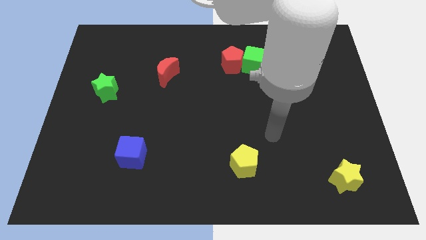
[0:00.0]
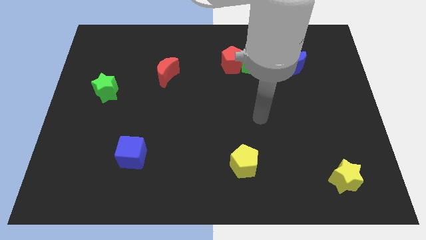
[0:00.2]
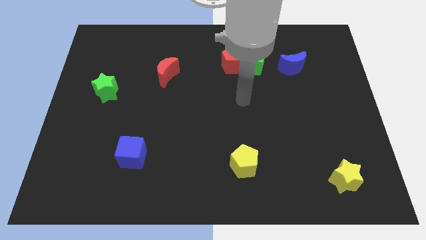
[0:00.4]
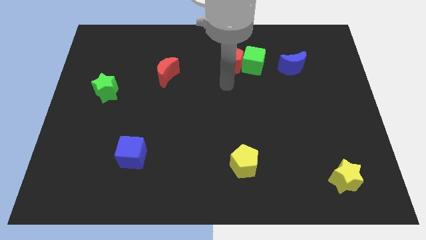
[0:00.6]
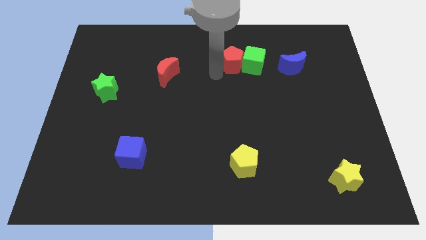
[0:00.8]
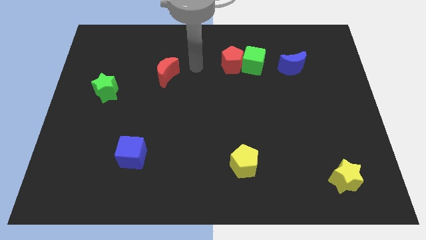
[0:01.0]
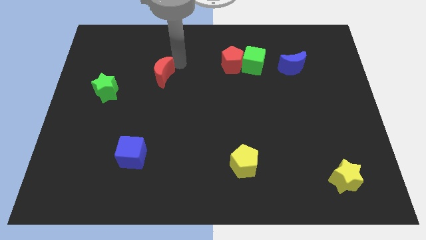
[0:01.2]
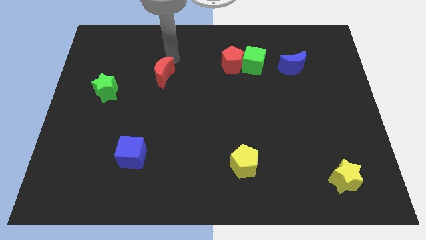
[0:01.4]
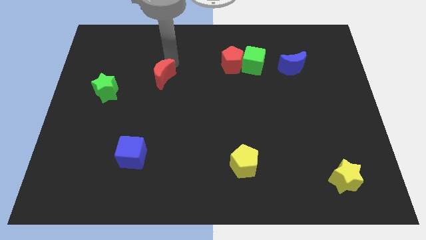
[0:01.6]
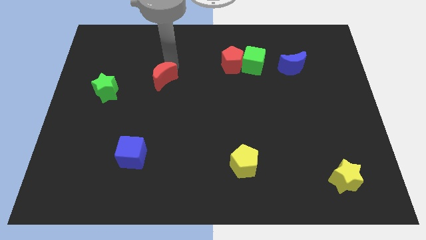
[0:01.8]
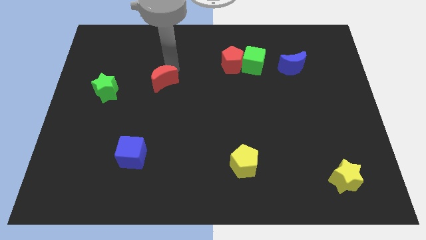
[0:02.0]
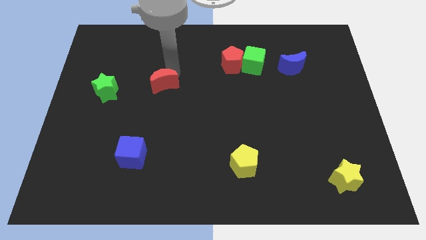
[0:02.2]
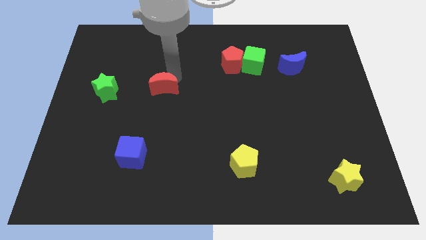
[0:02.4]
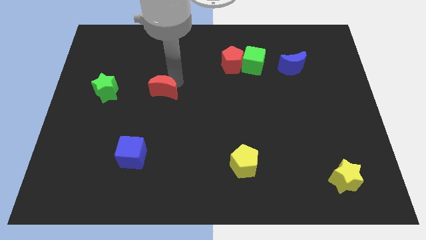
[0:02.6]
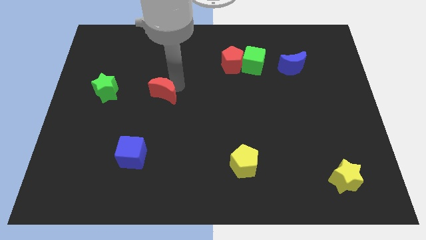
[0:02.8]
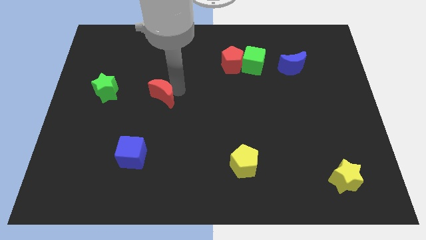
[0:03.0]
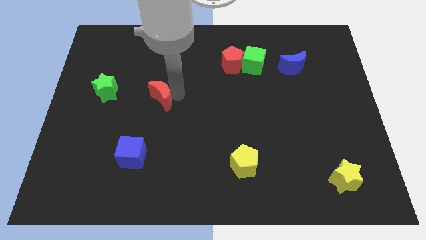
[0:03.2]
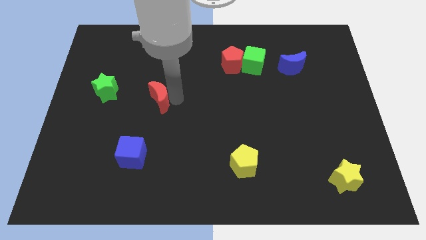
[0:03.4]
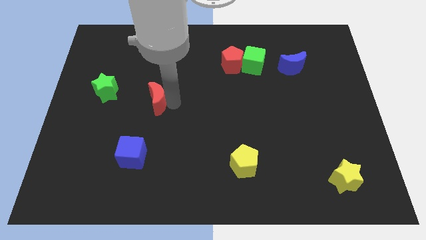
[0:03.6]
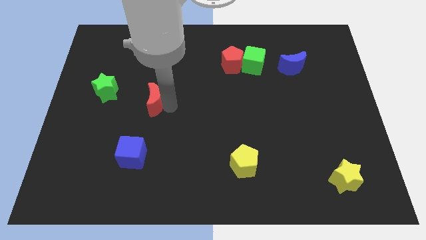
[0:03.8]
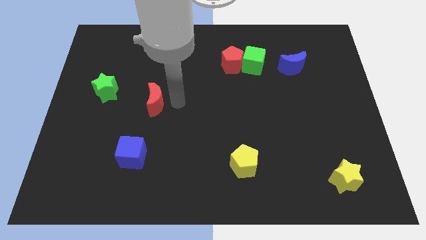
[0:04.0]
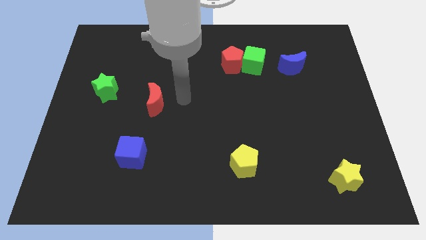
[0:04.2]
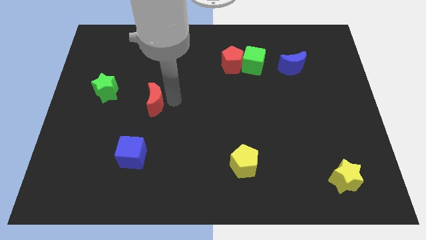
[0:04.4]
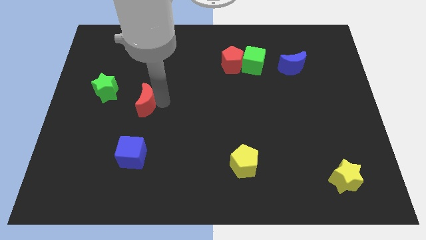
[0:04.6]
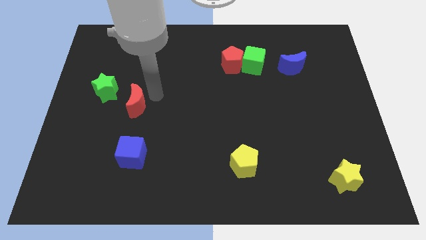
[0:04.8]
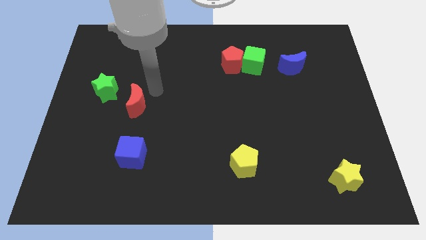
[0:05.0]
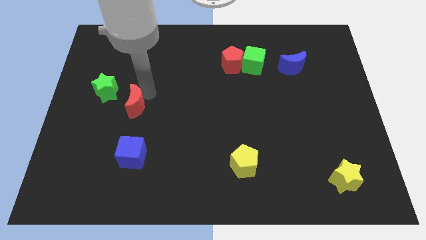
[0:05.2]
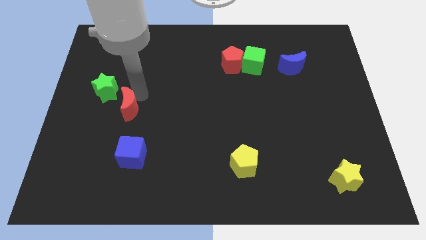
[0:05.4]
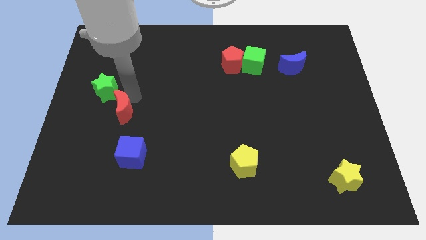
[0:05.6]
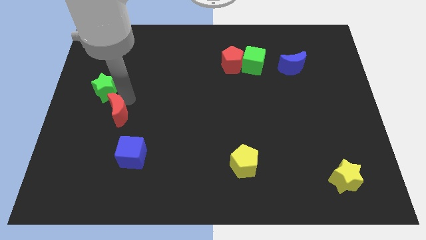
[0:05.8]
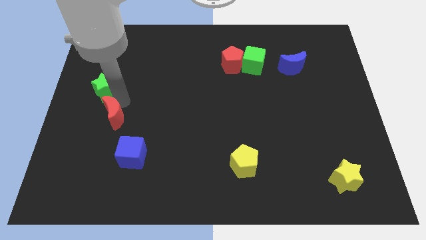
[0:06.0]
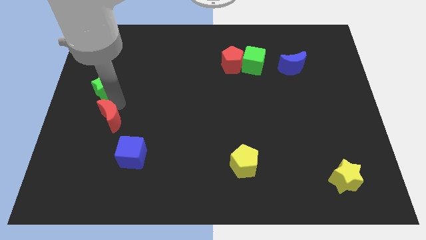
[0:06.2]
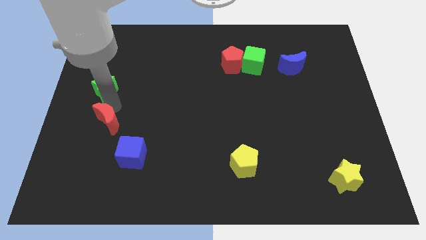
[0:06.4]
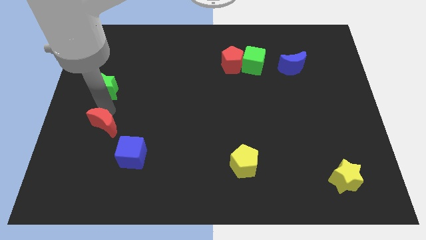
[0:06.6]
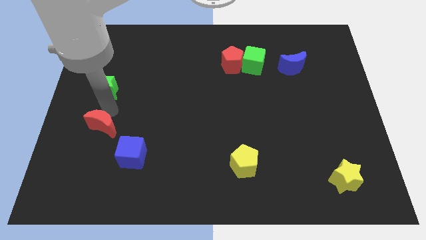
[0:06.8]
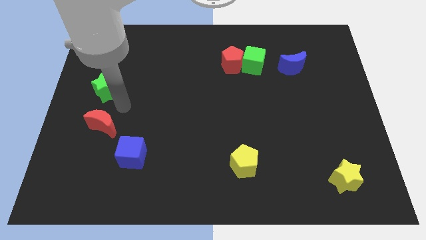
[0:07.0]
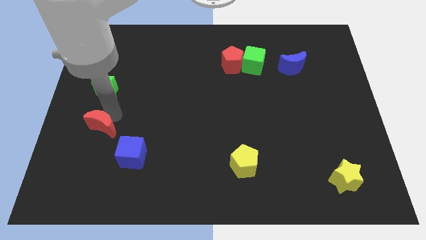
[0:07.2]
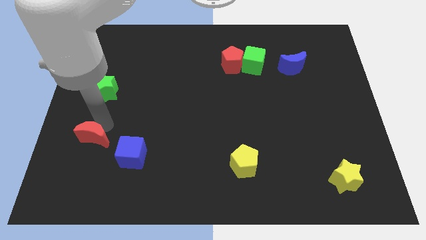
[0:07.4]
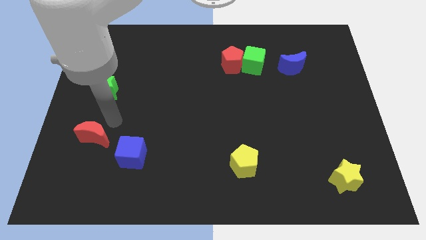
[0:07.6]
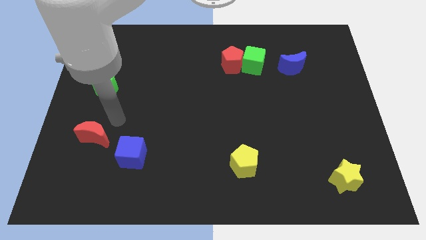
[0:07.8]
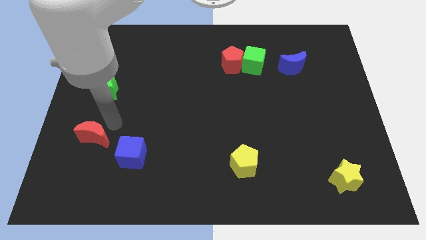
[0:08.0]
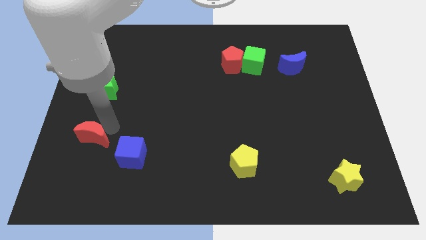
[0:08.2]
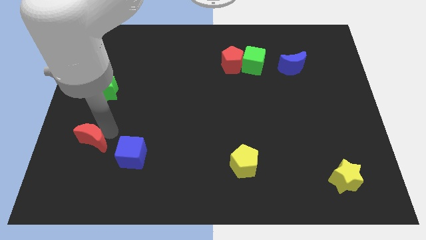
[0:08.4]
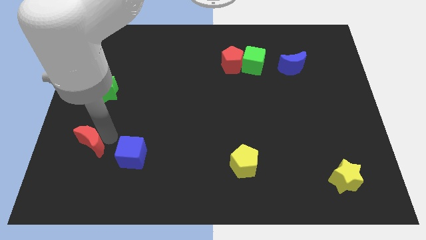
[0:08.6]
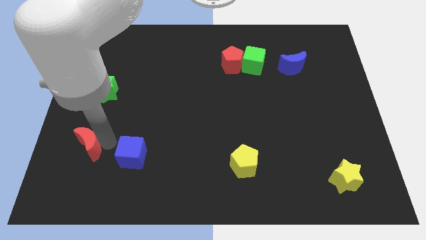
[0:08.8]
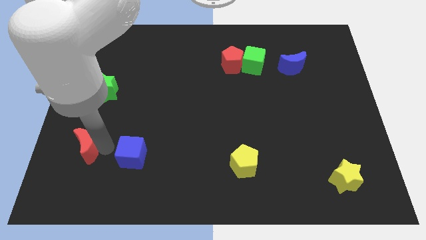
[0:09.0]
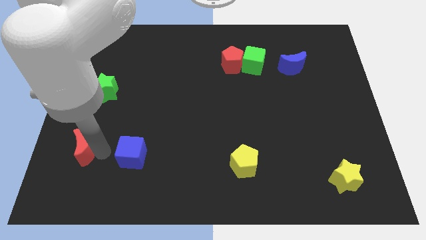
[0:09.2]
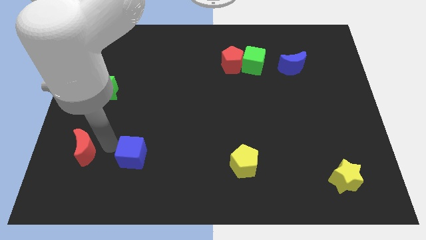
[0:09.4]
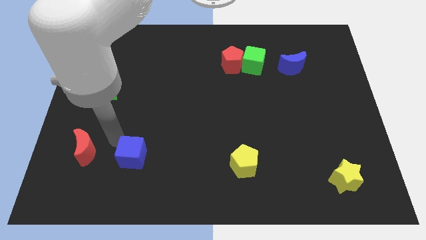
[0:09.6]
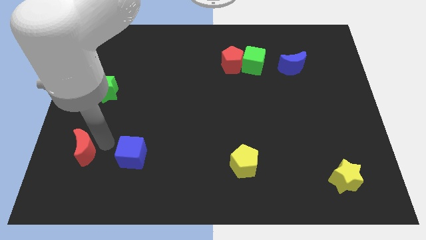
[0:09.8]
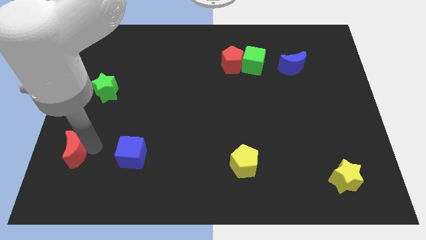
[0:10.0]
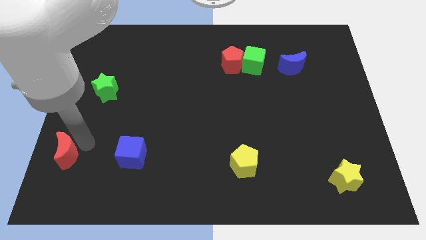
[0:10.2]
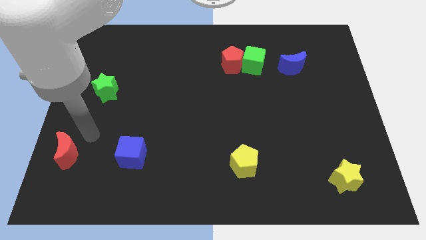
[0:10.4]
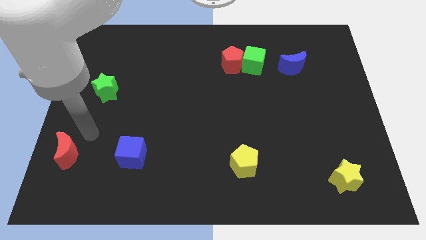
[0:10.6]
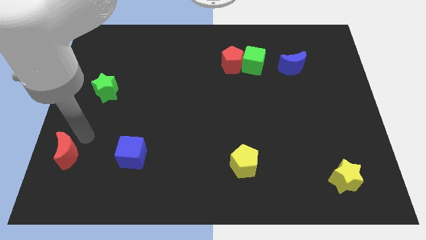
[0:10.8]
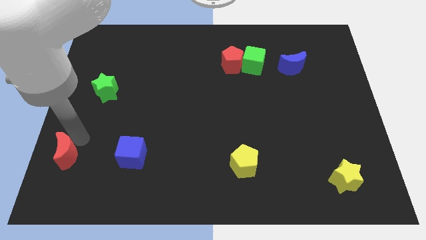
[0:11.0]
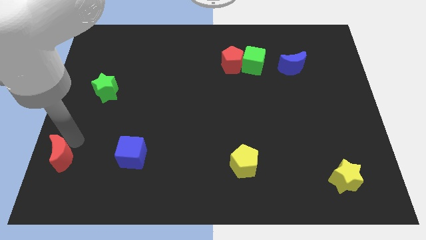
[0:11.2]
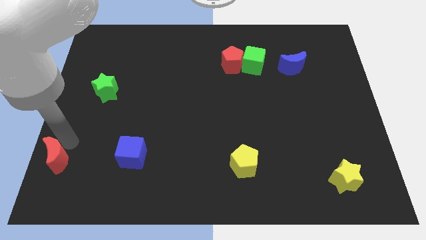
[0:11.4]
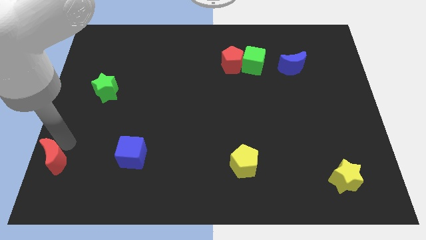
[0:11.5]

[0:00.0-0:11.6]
slide the red moon to the lower left corner

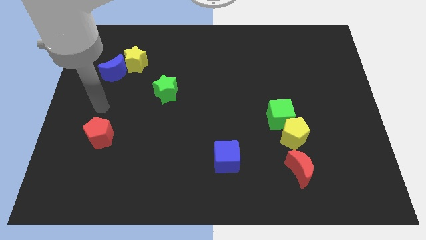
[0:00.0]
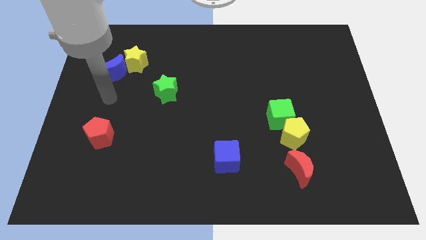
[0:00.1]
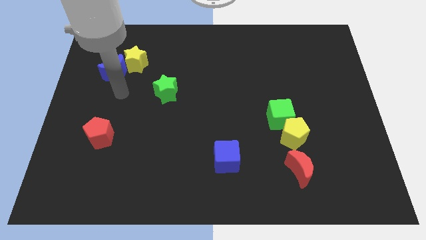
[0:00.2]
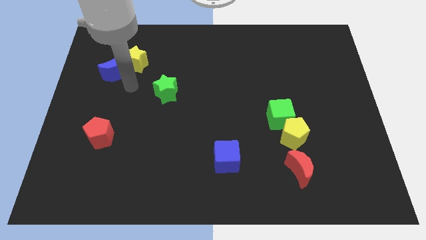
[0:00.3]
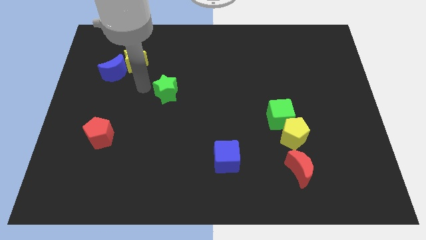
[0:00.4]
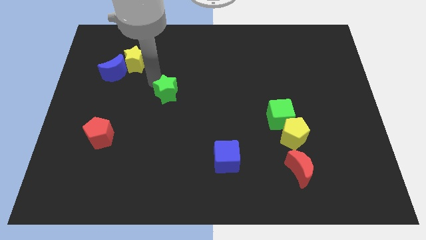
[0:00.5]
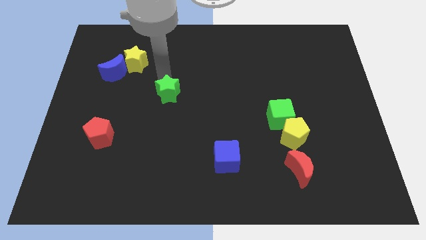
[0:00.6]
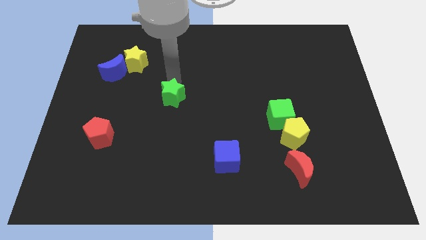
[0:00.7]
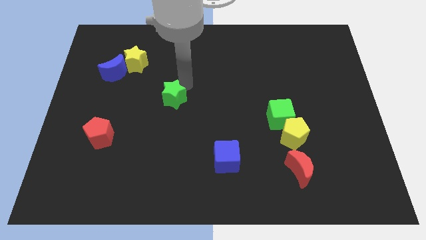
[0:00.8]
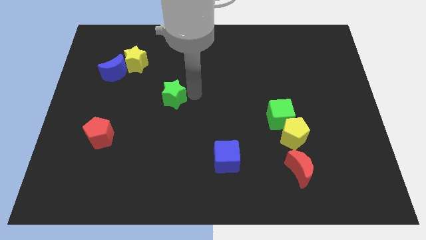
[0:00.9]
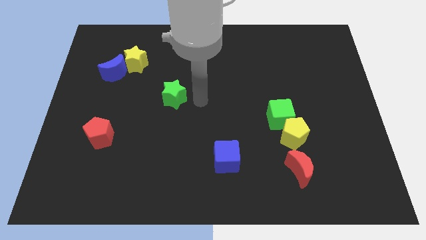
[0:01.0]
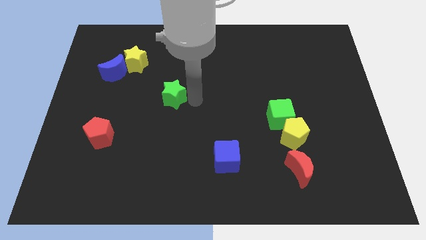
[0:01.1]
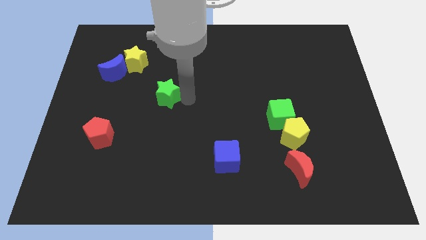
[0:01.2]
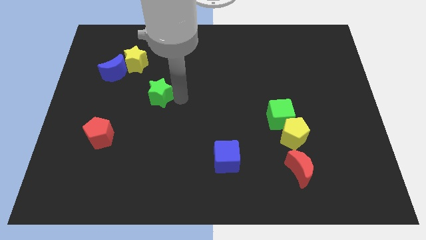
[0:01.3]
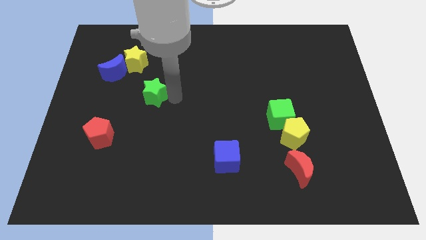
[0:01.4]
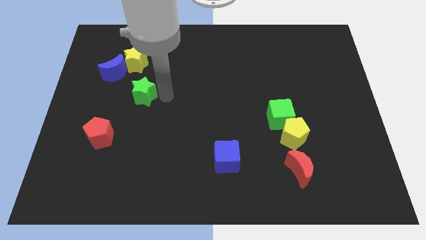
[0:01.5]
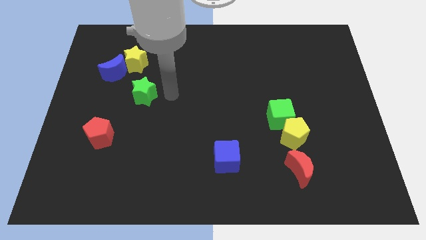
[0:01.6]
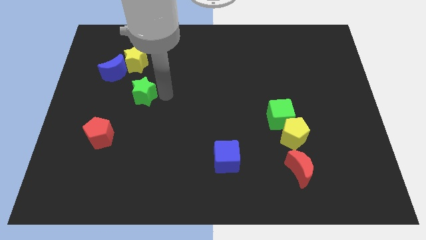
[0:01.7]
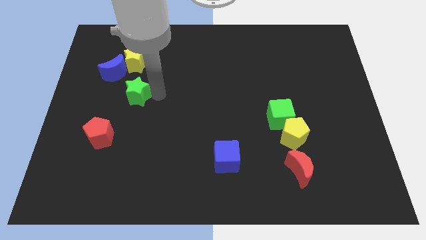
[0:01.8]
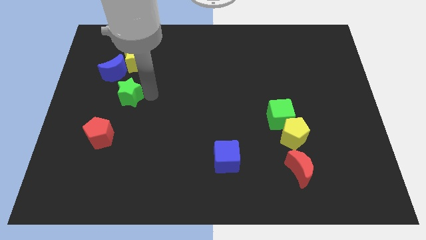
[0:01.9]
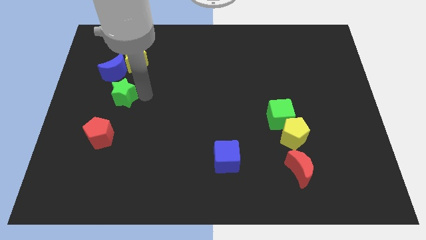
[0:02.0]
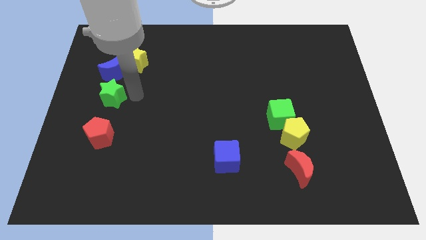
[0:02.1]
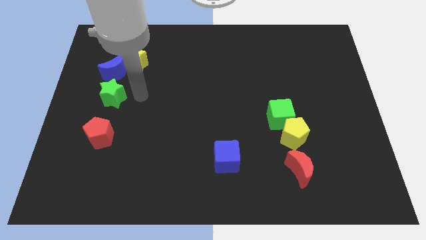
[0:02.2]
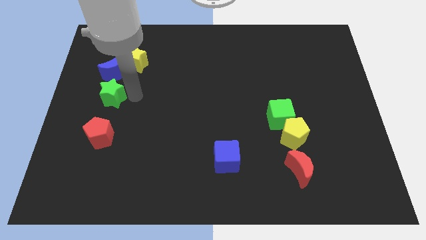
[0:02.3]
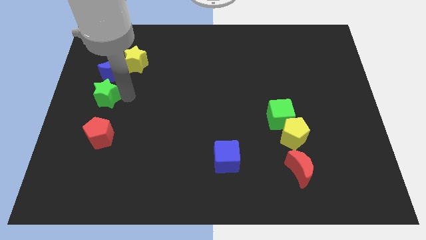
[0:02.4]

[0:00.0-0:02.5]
slide the green star to the left side
